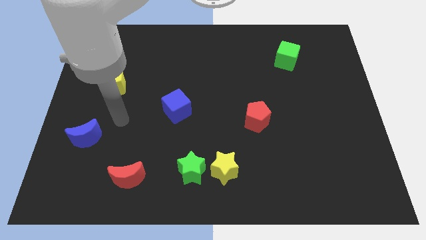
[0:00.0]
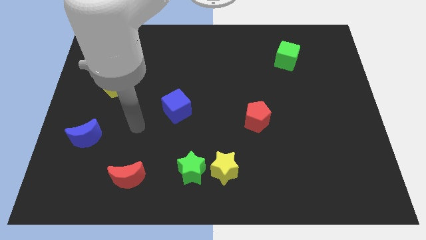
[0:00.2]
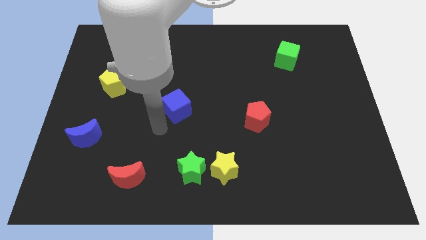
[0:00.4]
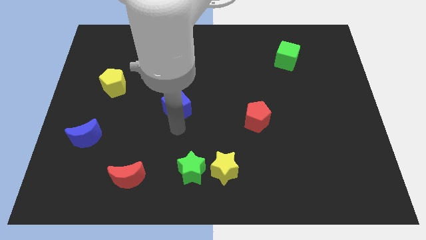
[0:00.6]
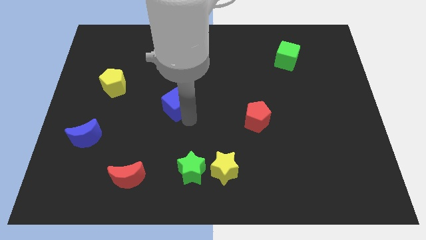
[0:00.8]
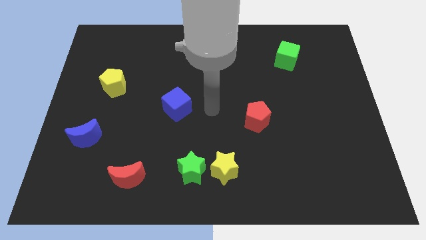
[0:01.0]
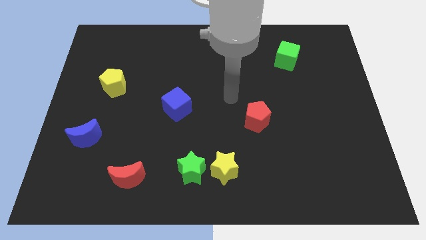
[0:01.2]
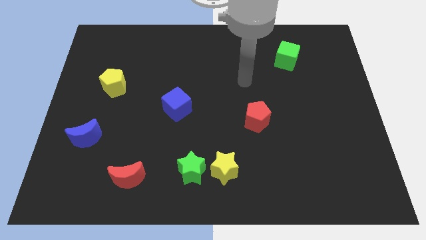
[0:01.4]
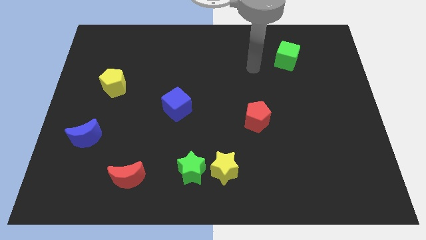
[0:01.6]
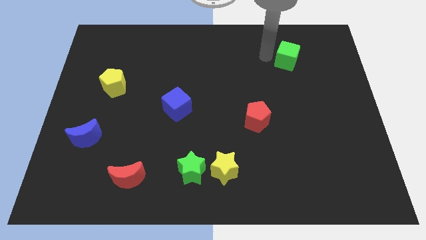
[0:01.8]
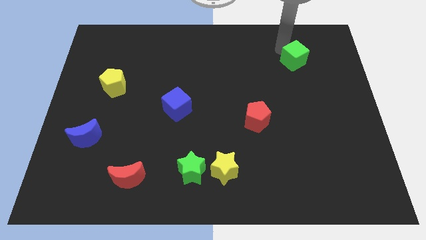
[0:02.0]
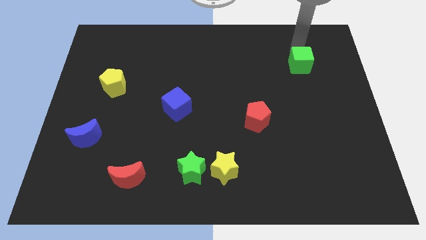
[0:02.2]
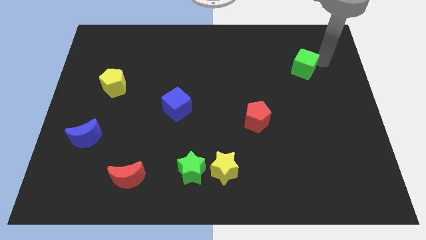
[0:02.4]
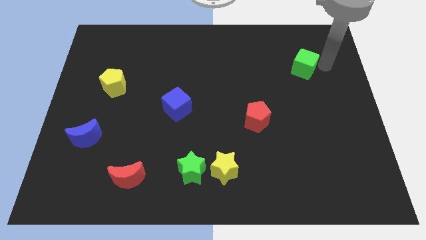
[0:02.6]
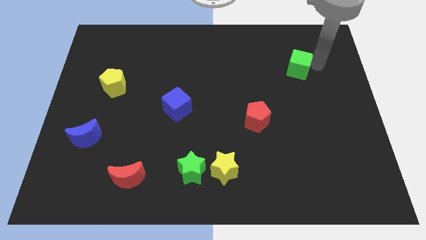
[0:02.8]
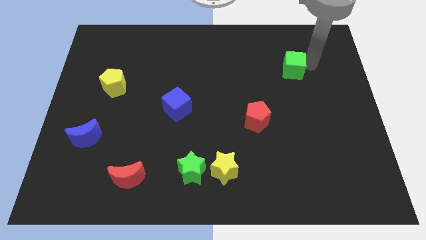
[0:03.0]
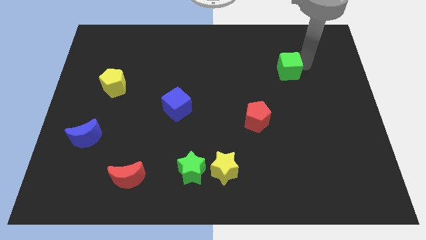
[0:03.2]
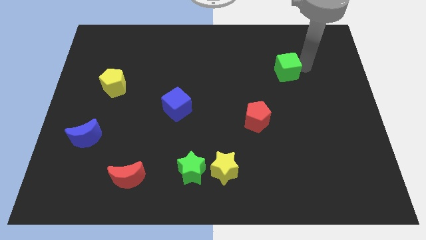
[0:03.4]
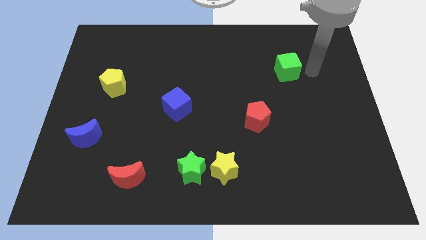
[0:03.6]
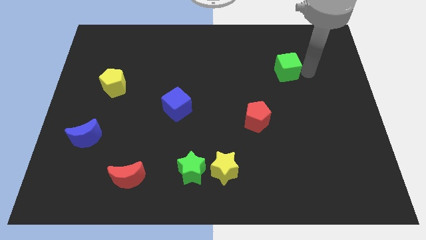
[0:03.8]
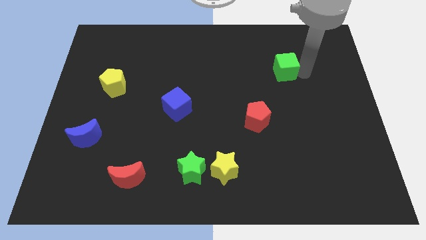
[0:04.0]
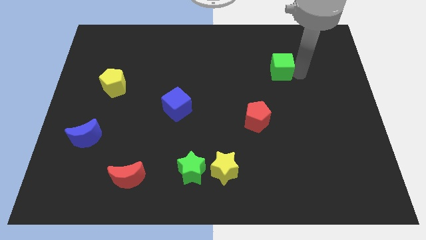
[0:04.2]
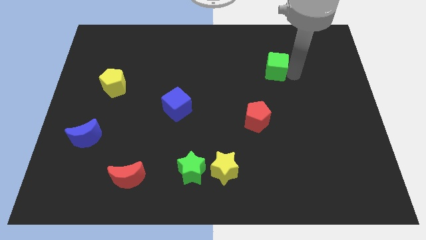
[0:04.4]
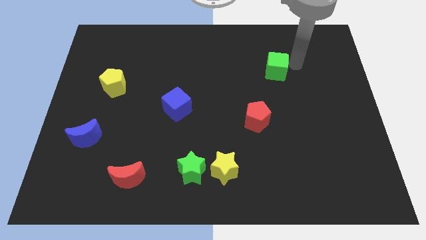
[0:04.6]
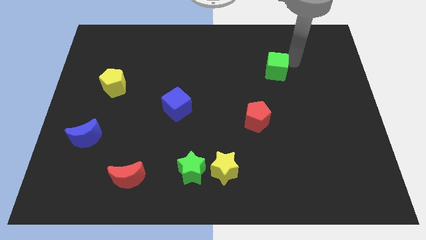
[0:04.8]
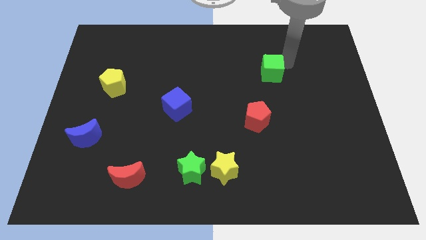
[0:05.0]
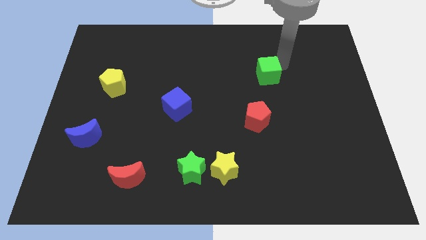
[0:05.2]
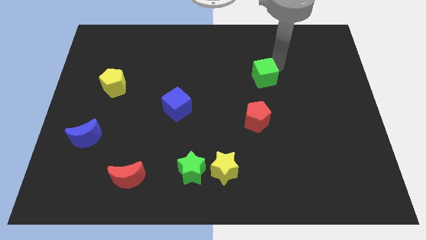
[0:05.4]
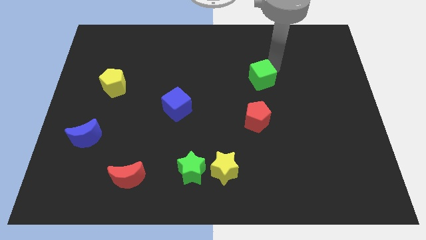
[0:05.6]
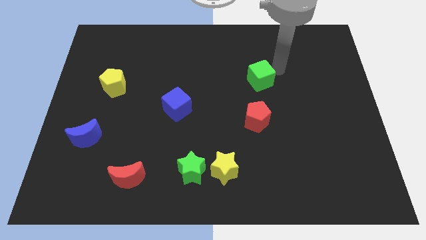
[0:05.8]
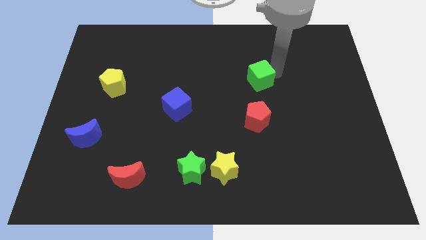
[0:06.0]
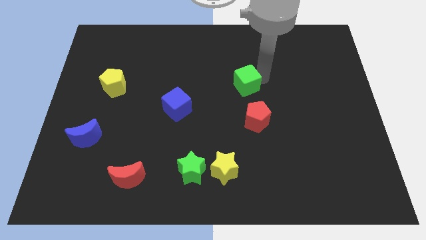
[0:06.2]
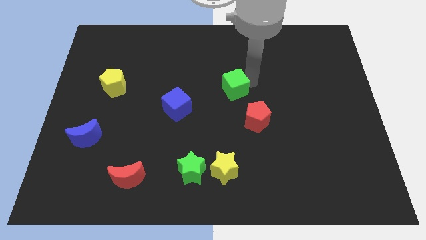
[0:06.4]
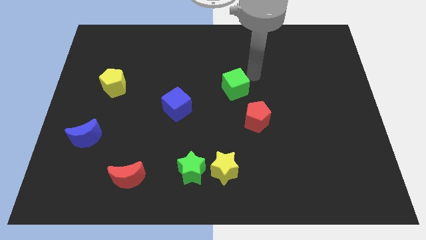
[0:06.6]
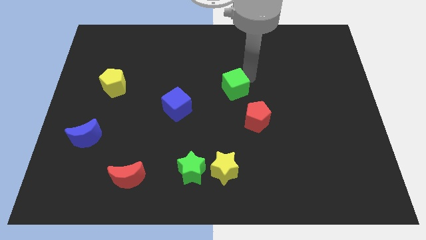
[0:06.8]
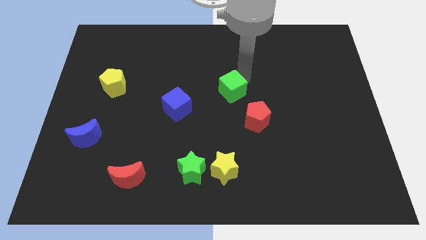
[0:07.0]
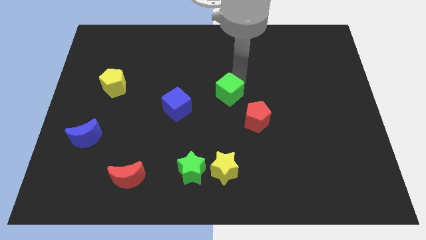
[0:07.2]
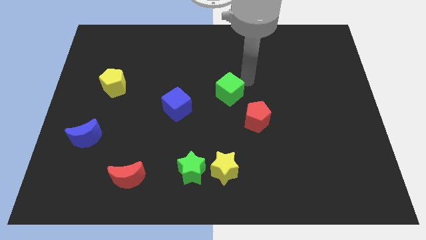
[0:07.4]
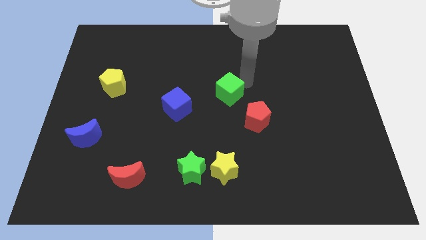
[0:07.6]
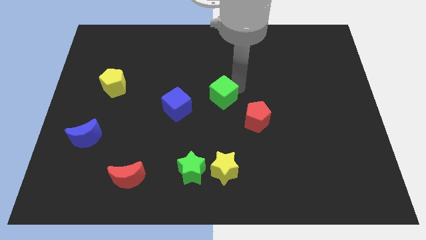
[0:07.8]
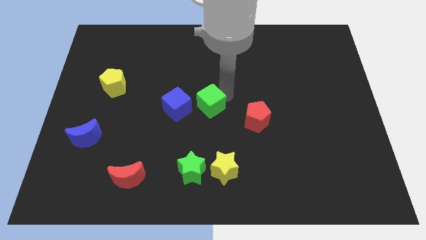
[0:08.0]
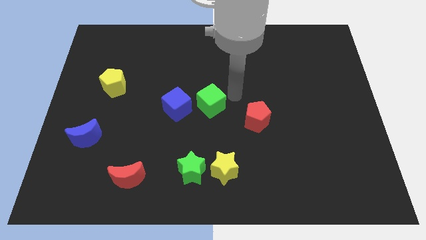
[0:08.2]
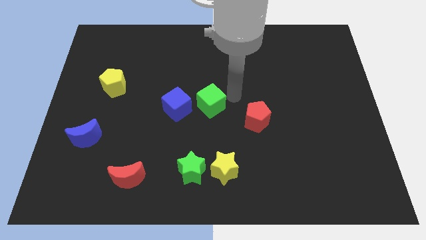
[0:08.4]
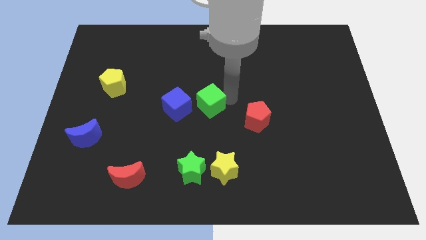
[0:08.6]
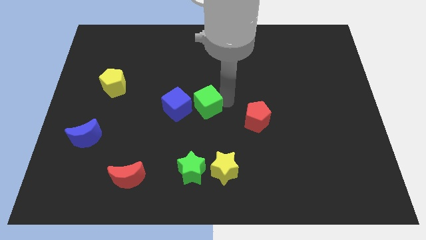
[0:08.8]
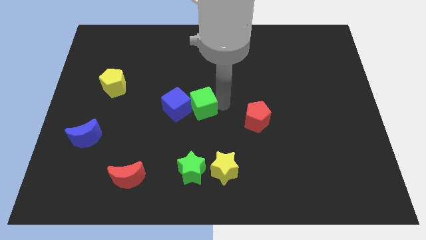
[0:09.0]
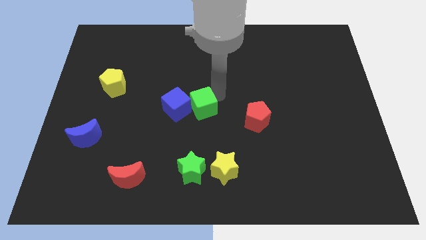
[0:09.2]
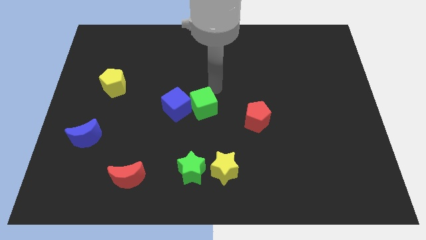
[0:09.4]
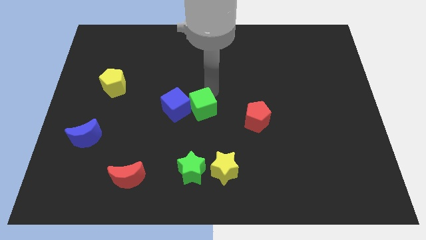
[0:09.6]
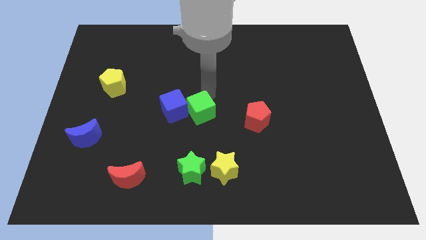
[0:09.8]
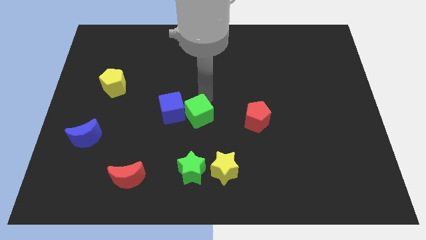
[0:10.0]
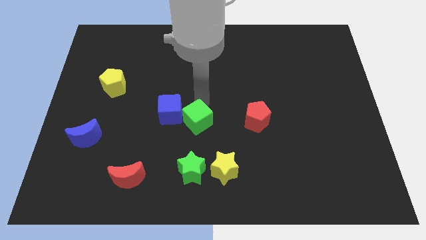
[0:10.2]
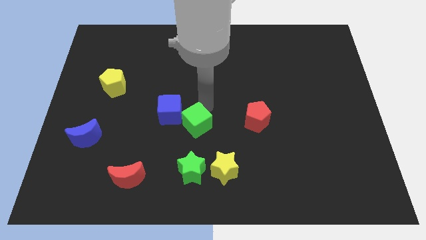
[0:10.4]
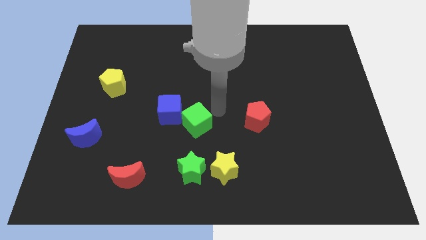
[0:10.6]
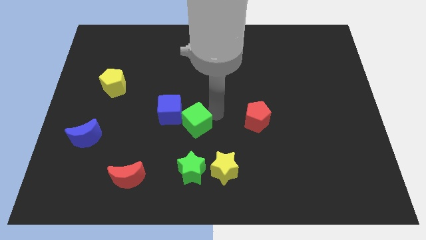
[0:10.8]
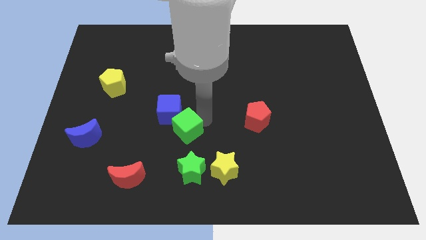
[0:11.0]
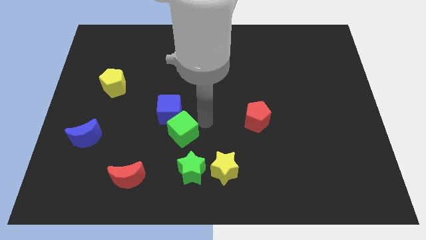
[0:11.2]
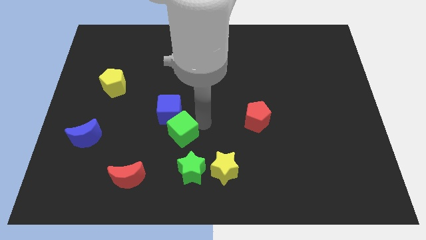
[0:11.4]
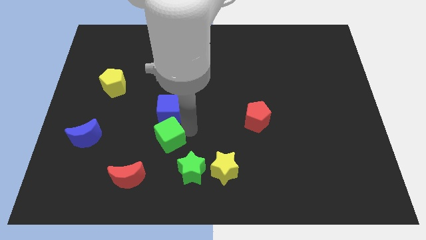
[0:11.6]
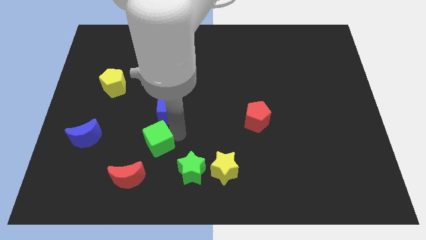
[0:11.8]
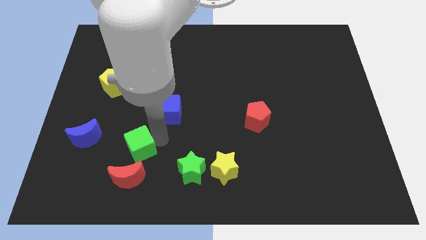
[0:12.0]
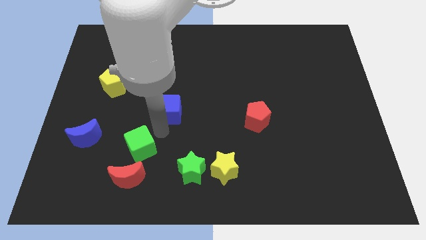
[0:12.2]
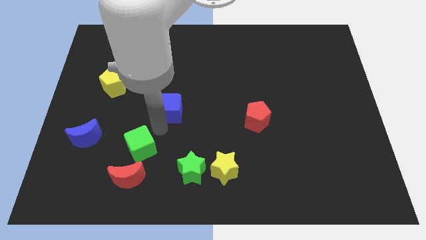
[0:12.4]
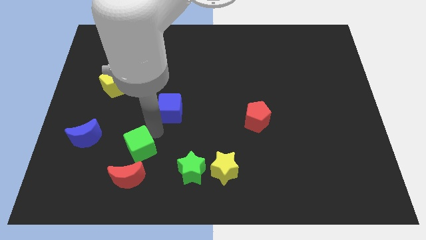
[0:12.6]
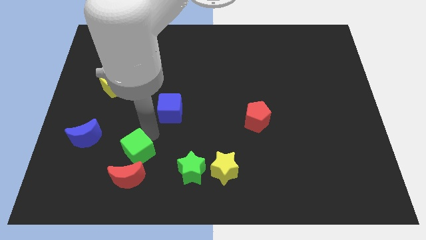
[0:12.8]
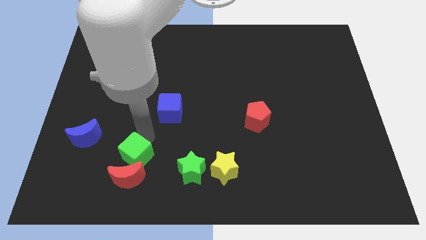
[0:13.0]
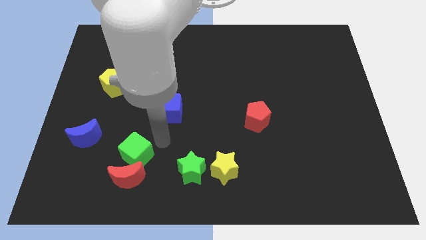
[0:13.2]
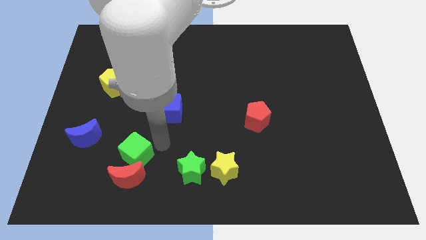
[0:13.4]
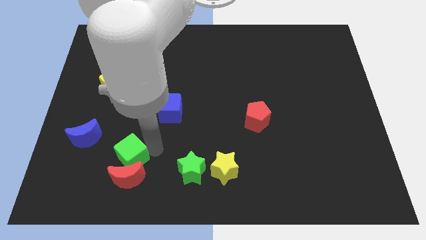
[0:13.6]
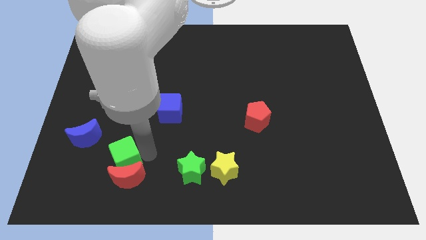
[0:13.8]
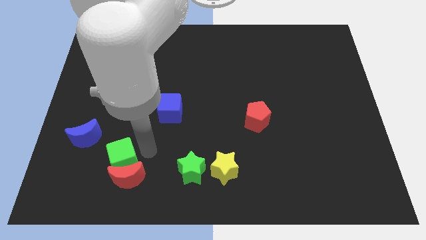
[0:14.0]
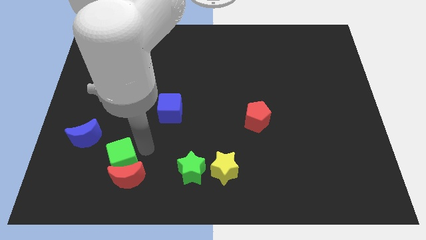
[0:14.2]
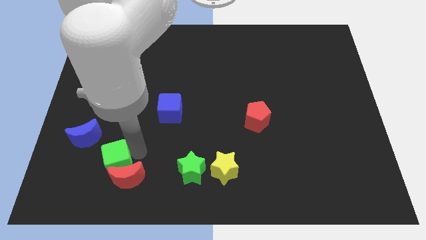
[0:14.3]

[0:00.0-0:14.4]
move the green cube left of the red moon

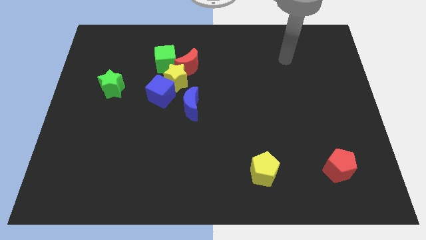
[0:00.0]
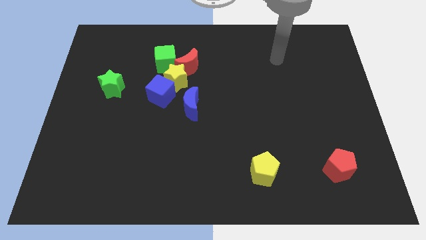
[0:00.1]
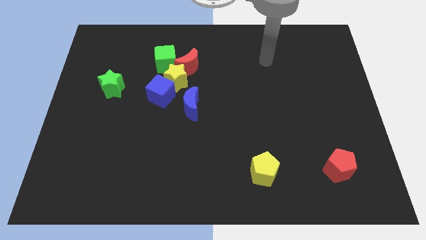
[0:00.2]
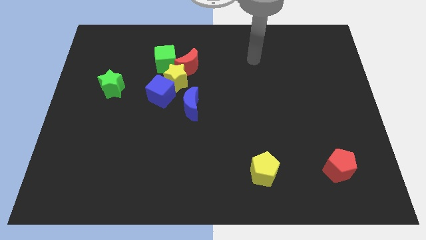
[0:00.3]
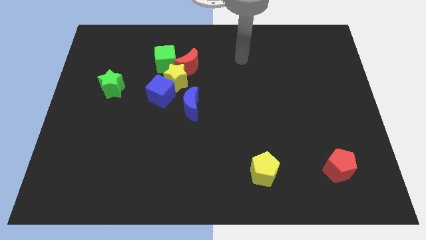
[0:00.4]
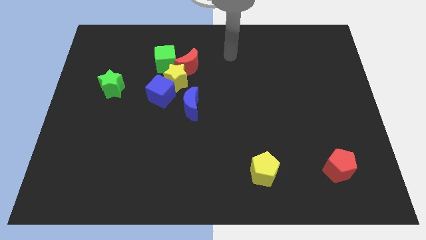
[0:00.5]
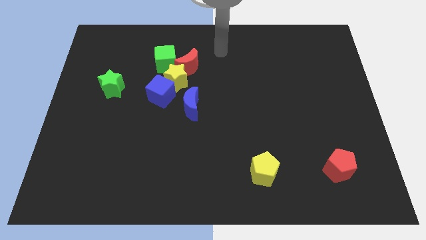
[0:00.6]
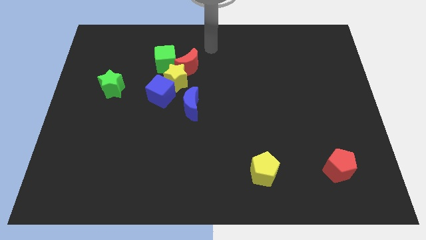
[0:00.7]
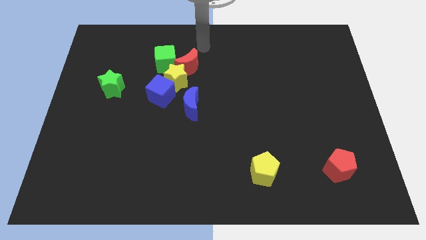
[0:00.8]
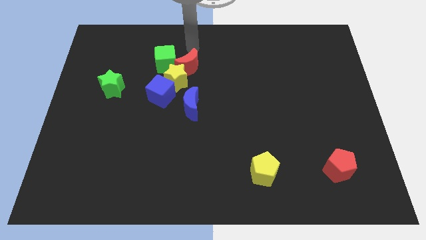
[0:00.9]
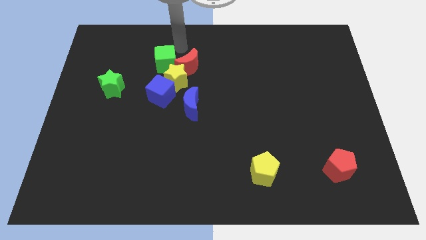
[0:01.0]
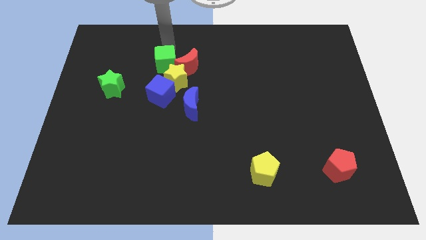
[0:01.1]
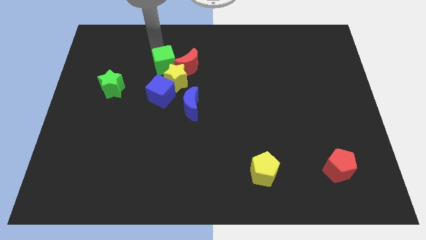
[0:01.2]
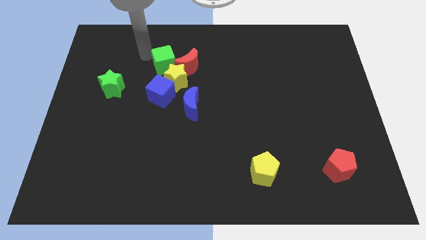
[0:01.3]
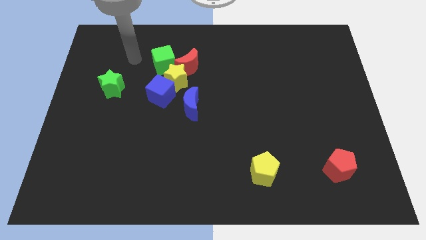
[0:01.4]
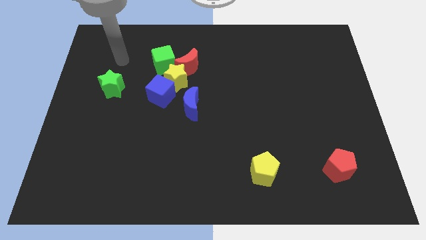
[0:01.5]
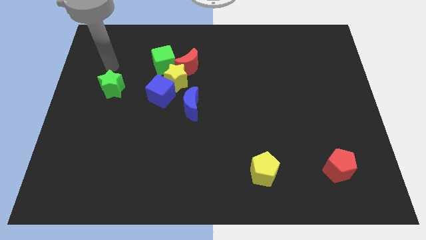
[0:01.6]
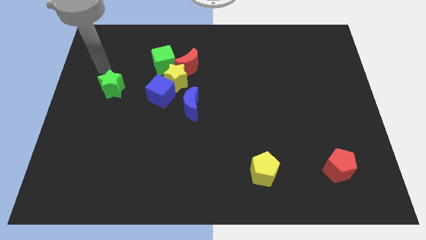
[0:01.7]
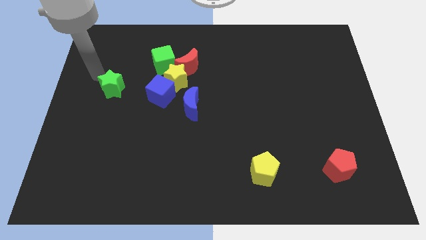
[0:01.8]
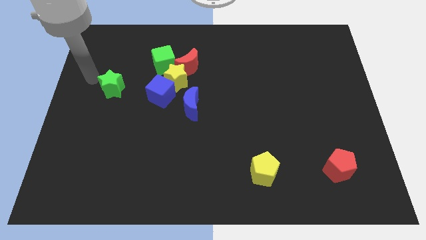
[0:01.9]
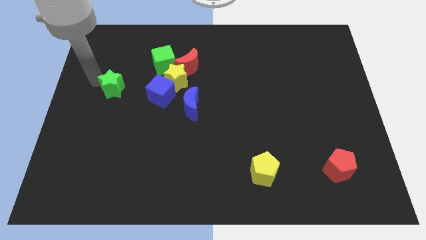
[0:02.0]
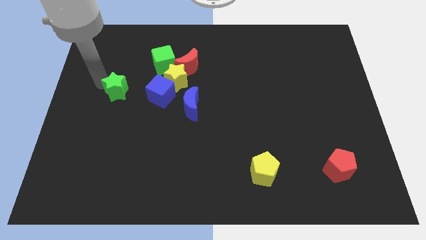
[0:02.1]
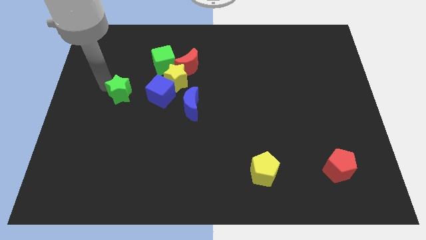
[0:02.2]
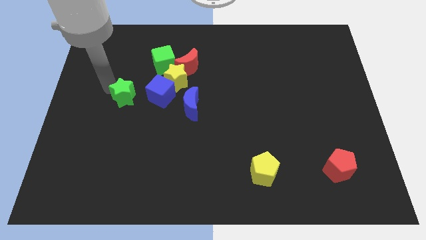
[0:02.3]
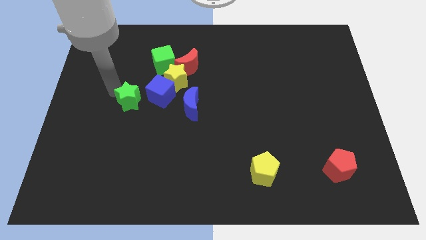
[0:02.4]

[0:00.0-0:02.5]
move the green star to the left side of the blue moon
